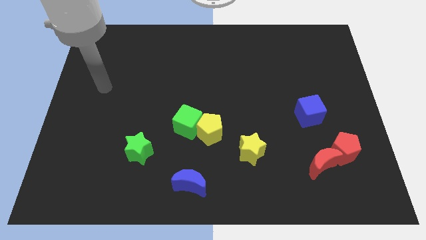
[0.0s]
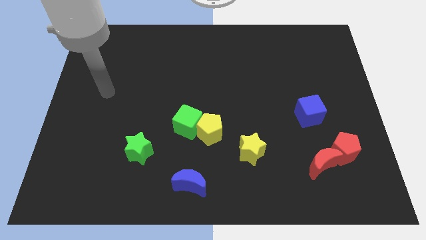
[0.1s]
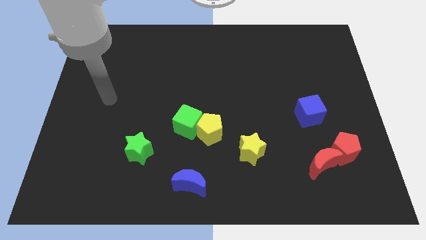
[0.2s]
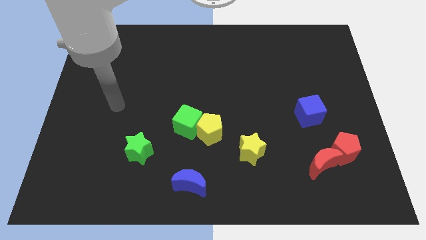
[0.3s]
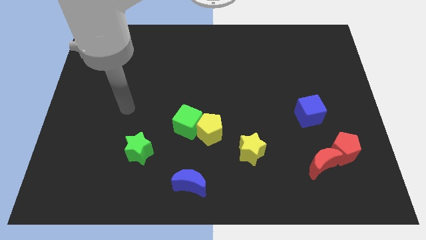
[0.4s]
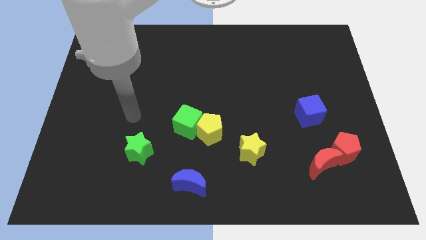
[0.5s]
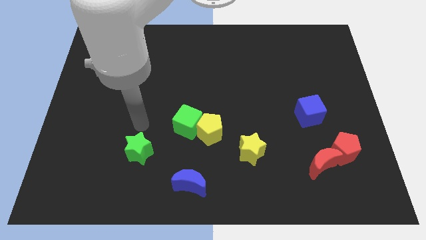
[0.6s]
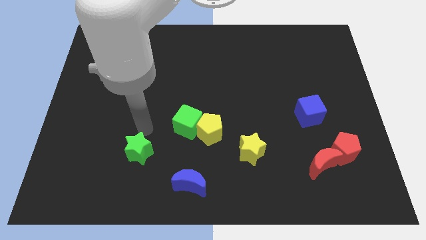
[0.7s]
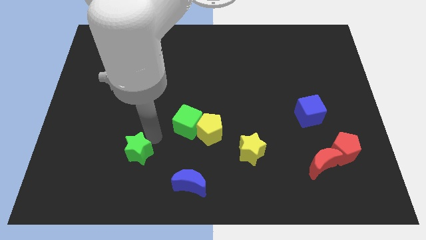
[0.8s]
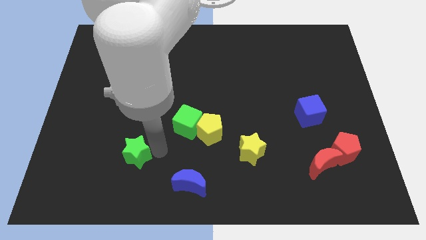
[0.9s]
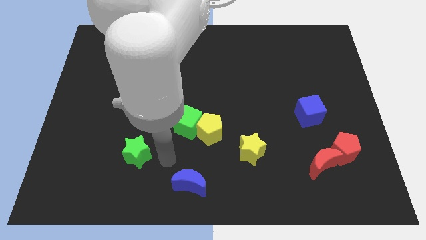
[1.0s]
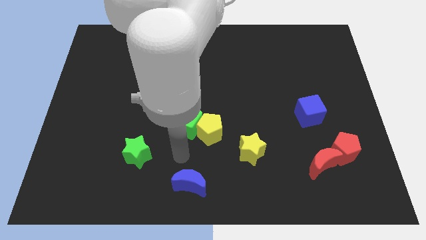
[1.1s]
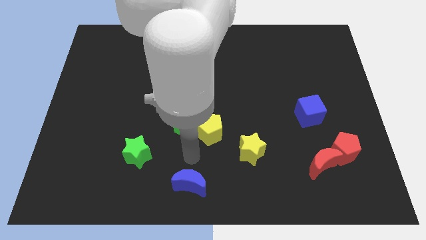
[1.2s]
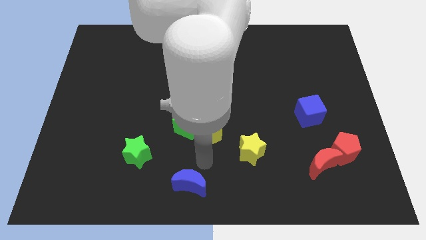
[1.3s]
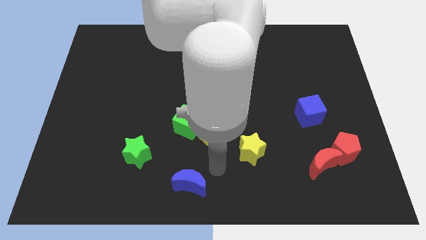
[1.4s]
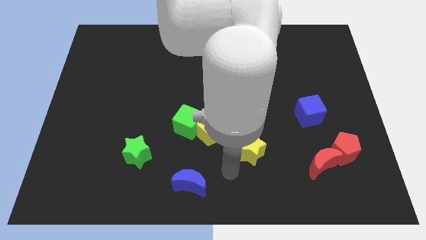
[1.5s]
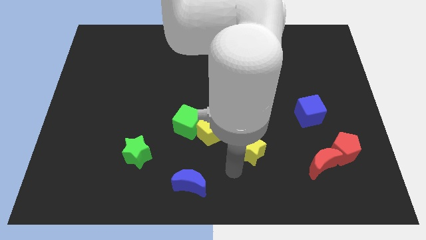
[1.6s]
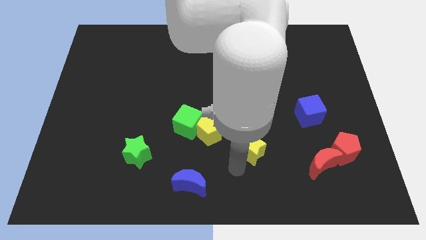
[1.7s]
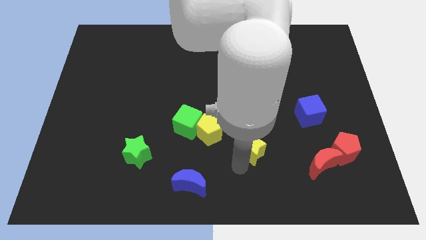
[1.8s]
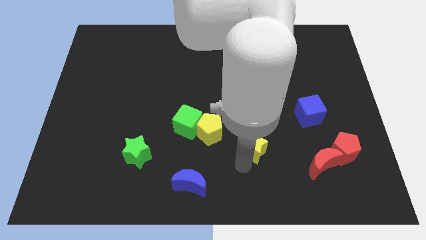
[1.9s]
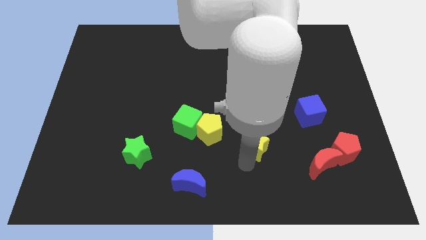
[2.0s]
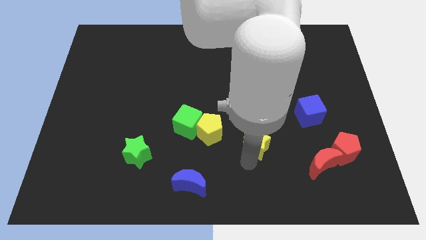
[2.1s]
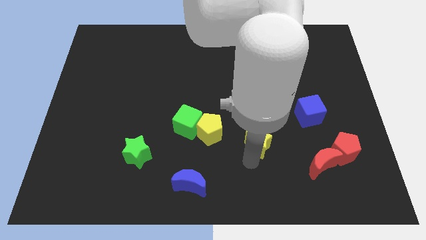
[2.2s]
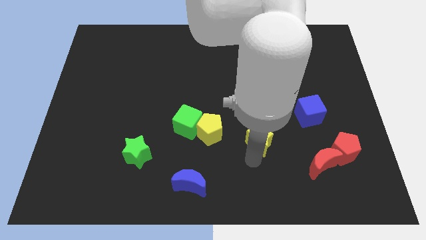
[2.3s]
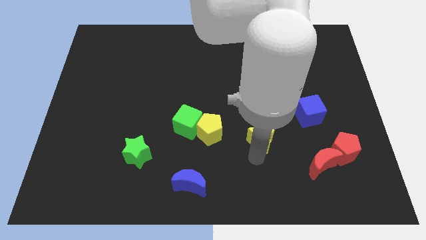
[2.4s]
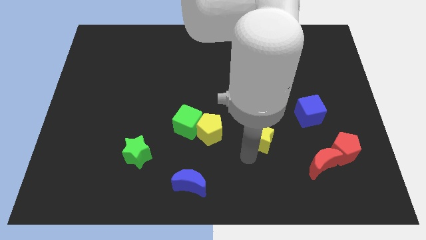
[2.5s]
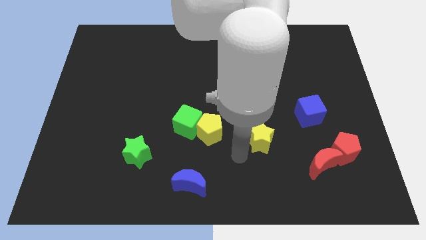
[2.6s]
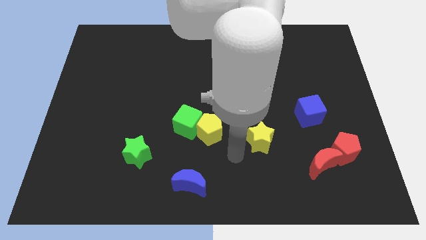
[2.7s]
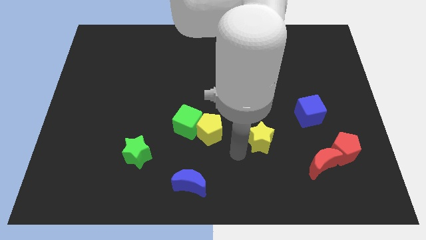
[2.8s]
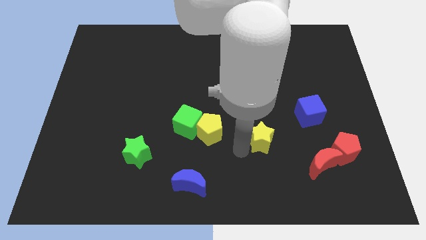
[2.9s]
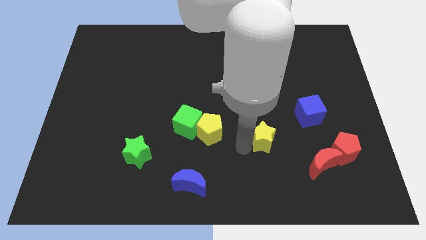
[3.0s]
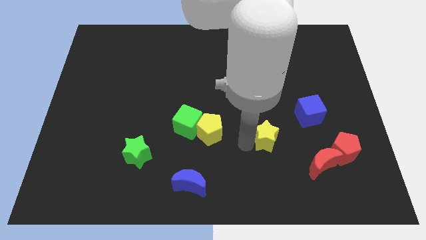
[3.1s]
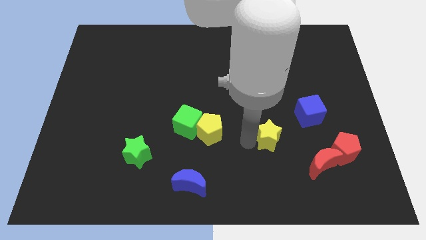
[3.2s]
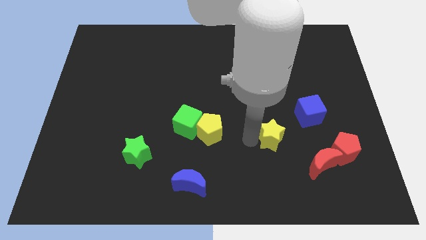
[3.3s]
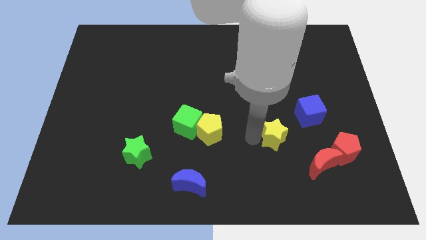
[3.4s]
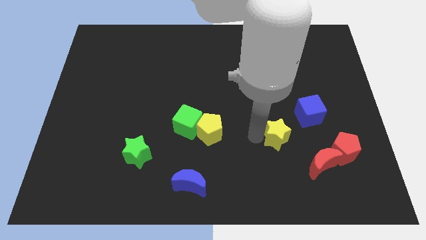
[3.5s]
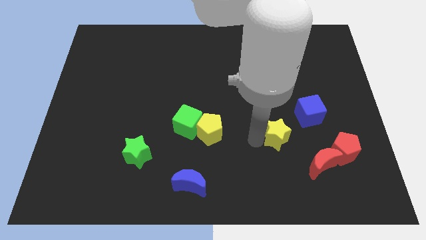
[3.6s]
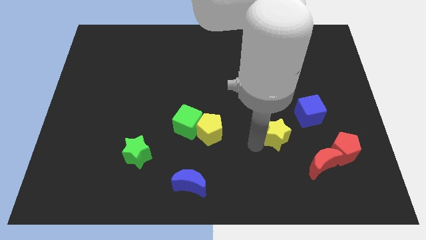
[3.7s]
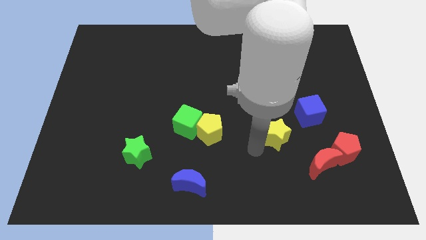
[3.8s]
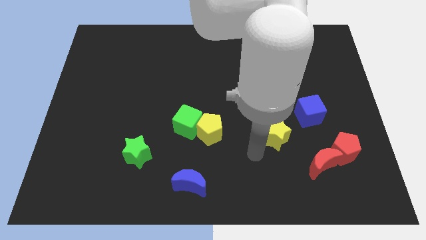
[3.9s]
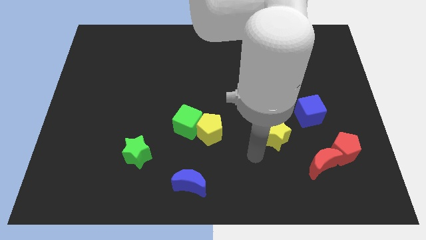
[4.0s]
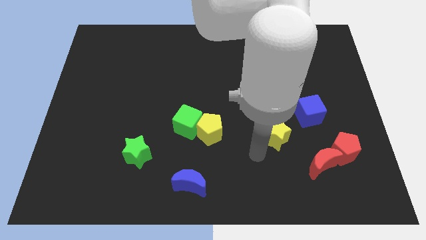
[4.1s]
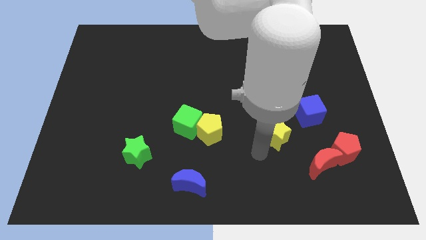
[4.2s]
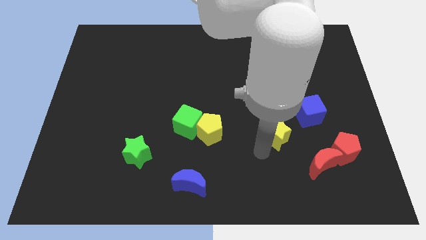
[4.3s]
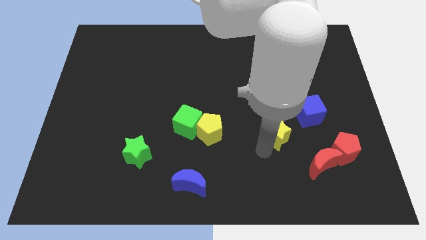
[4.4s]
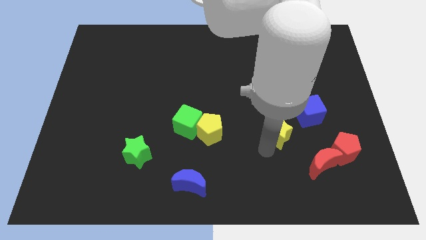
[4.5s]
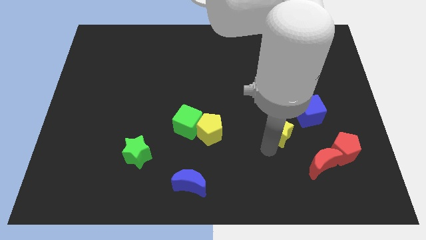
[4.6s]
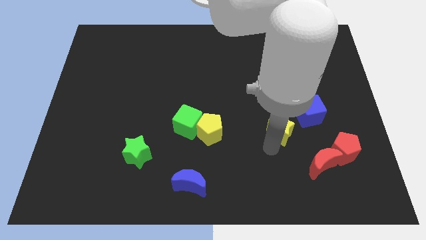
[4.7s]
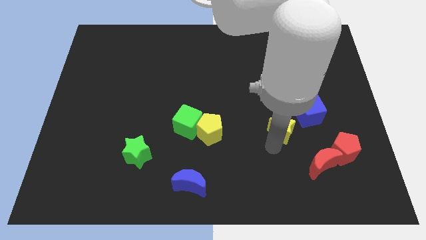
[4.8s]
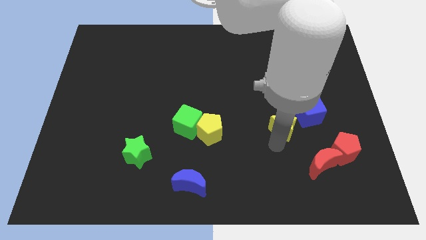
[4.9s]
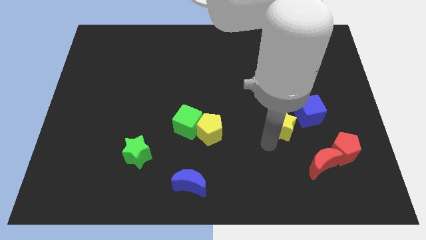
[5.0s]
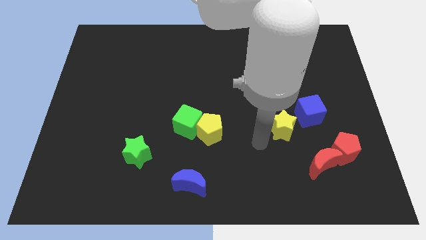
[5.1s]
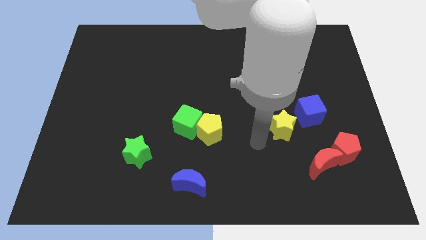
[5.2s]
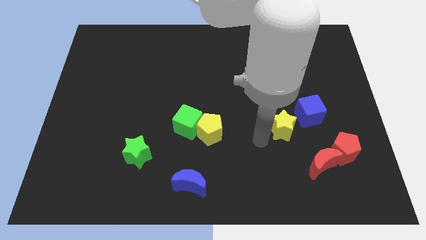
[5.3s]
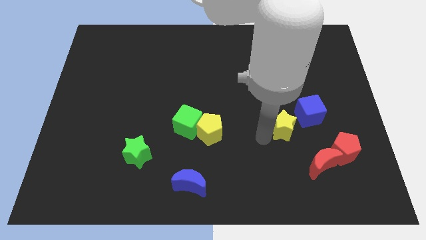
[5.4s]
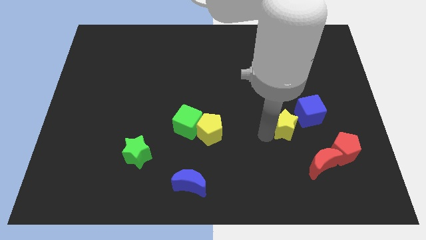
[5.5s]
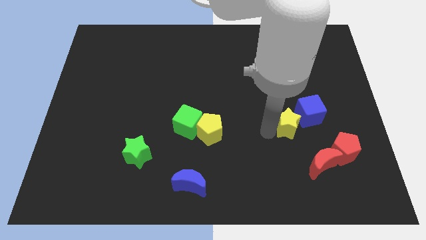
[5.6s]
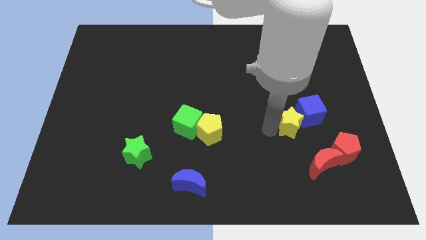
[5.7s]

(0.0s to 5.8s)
move the yellow star to the blue cube

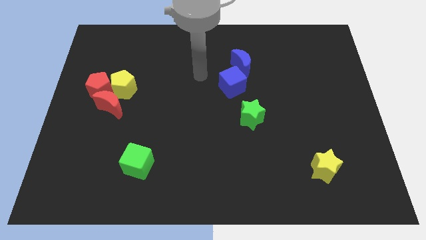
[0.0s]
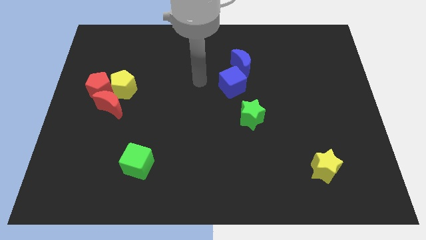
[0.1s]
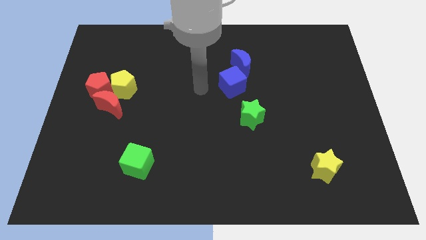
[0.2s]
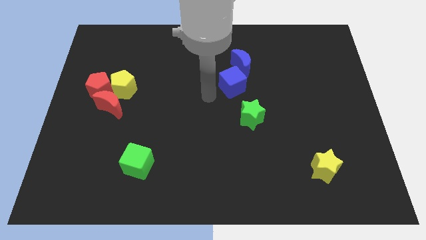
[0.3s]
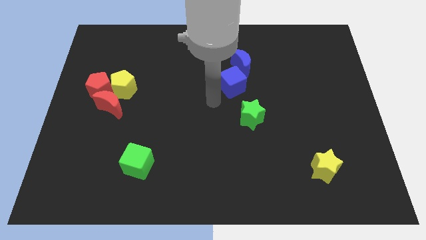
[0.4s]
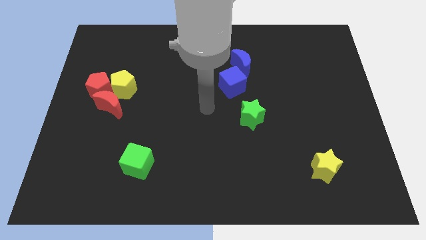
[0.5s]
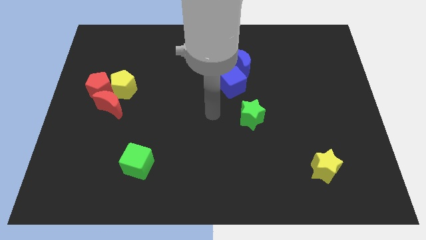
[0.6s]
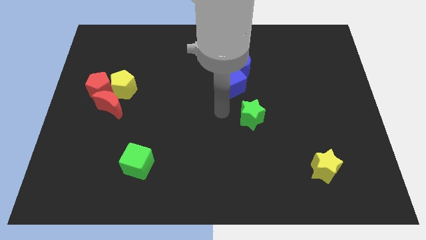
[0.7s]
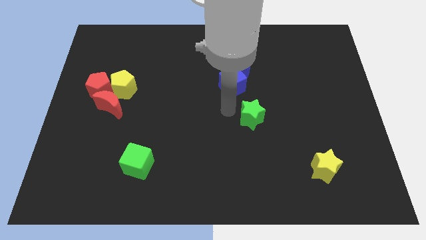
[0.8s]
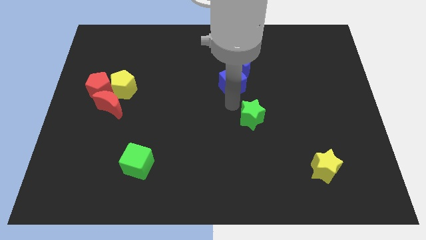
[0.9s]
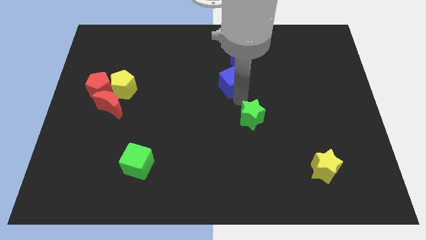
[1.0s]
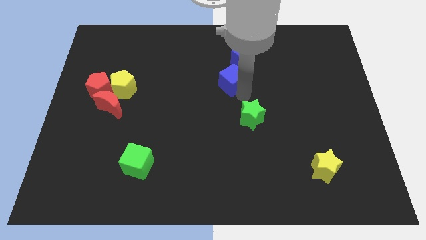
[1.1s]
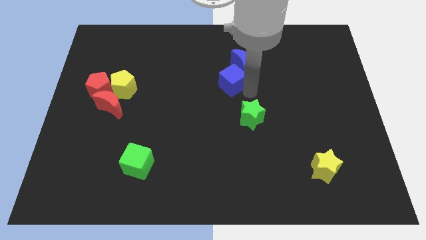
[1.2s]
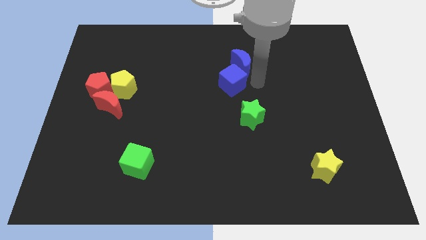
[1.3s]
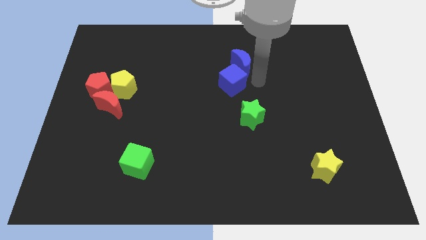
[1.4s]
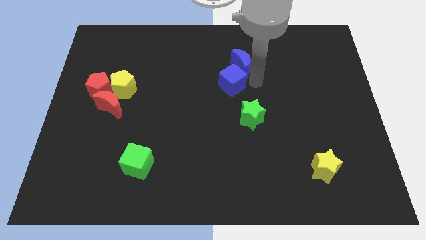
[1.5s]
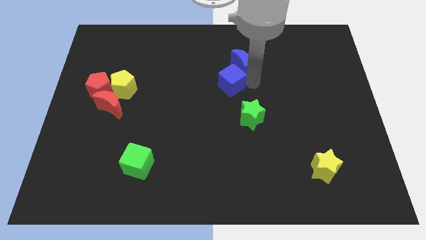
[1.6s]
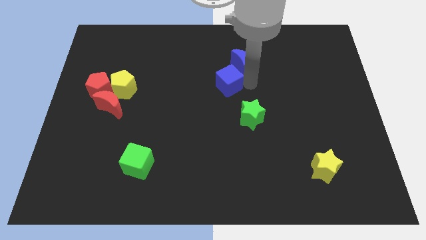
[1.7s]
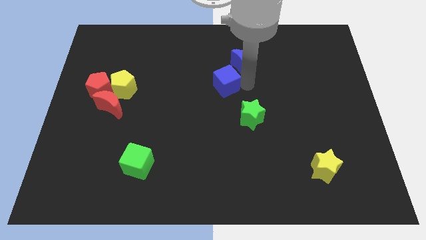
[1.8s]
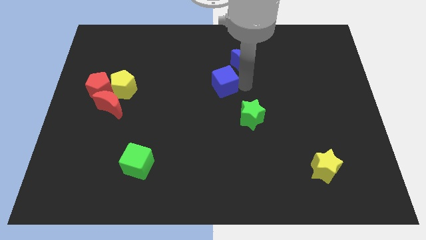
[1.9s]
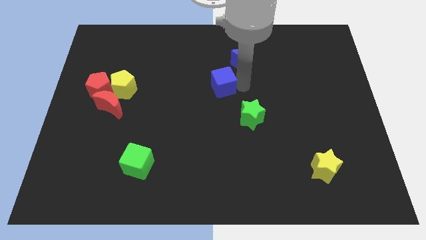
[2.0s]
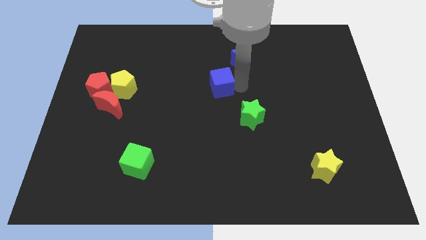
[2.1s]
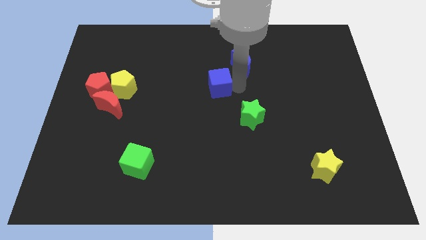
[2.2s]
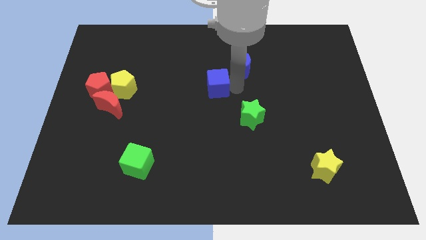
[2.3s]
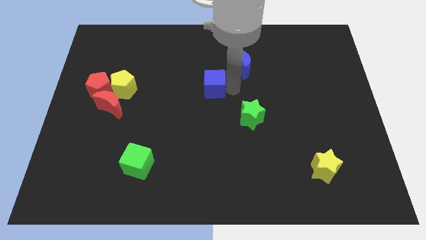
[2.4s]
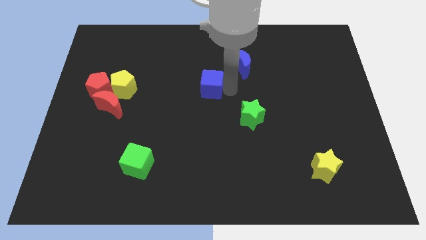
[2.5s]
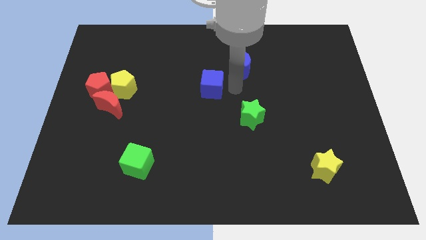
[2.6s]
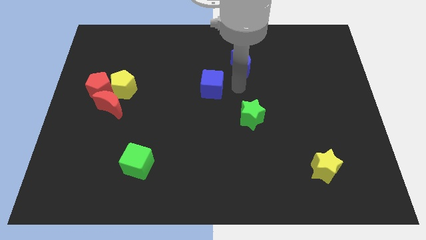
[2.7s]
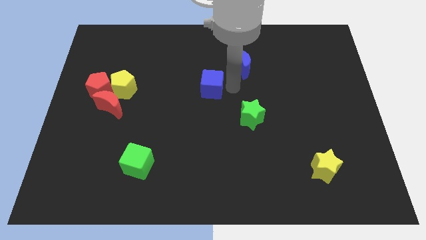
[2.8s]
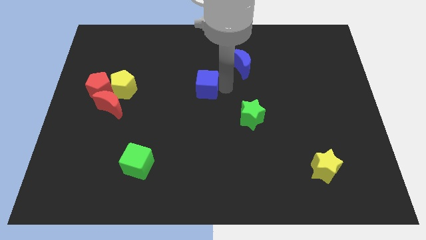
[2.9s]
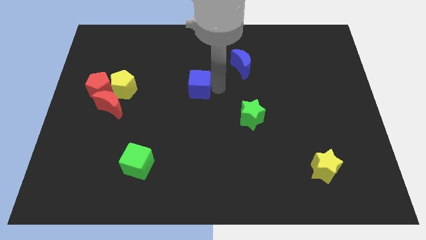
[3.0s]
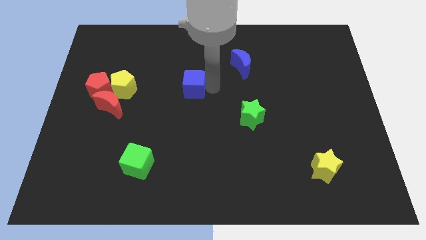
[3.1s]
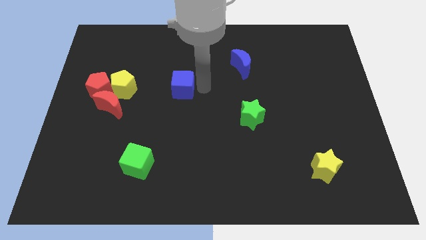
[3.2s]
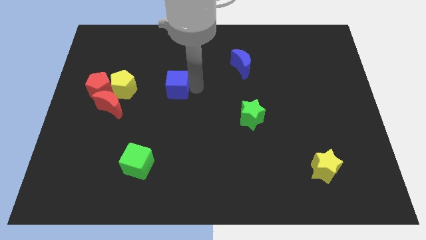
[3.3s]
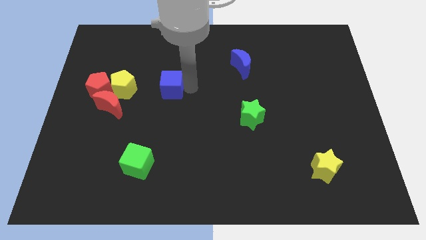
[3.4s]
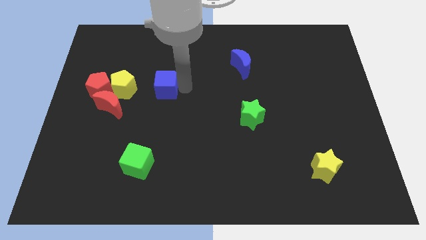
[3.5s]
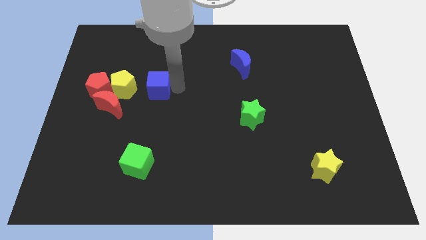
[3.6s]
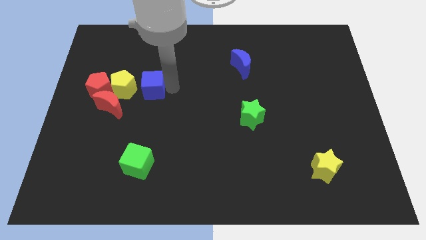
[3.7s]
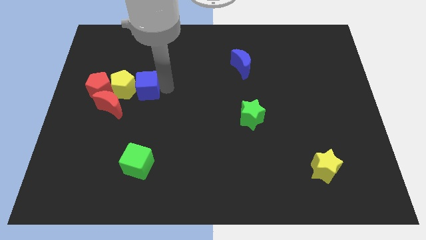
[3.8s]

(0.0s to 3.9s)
push the blue cube towards the yellow pentagon
